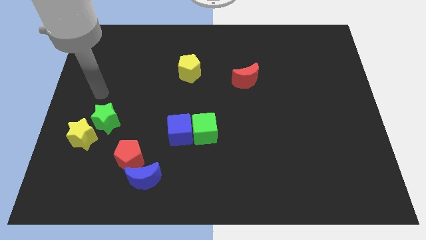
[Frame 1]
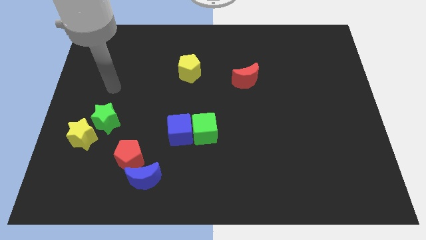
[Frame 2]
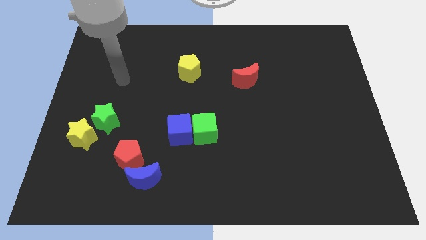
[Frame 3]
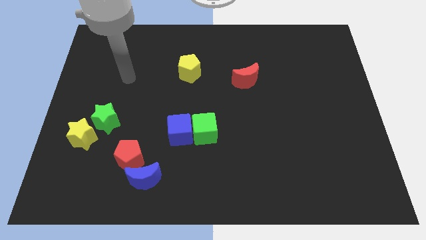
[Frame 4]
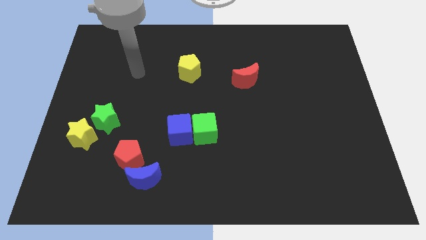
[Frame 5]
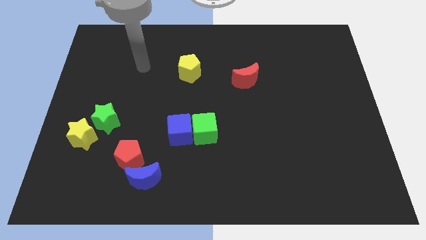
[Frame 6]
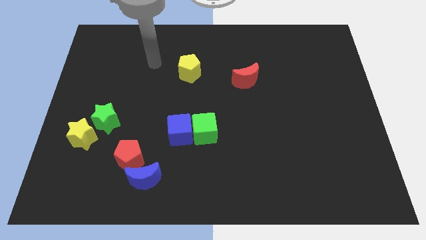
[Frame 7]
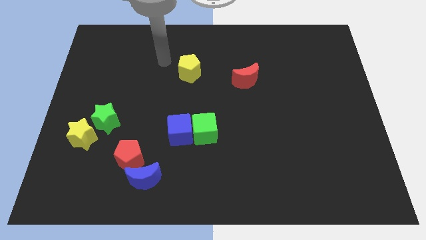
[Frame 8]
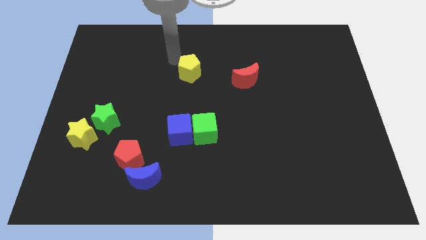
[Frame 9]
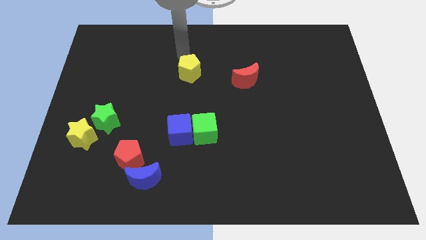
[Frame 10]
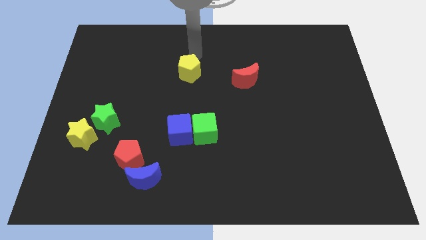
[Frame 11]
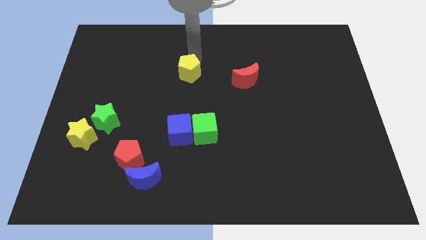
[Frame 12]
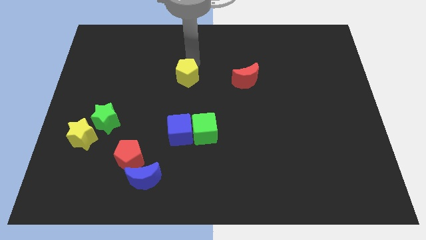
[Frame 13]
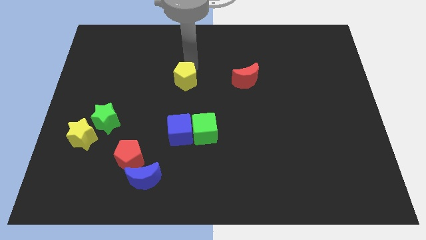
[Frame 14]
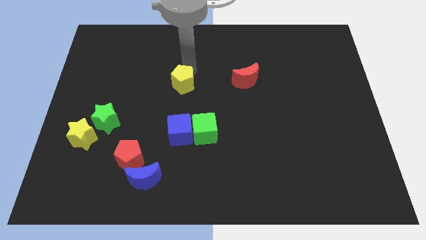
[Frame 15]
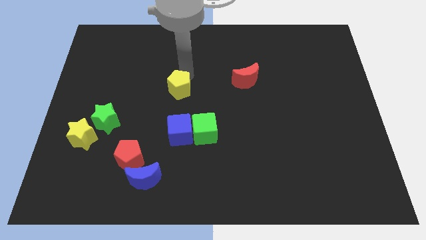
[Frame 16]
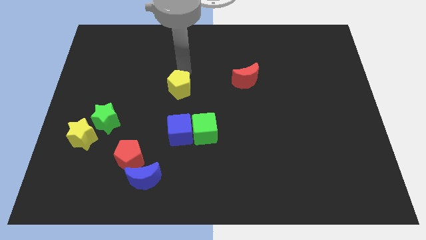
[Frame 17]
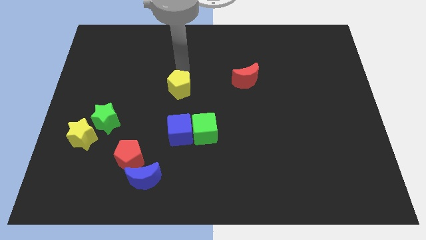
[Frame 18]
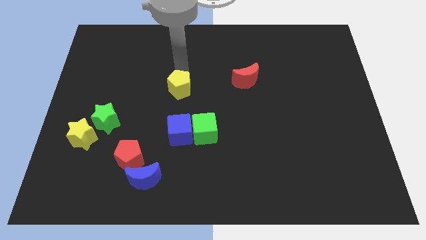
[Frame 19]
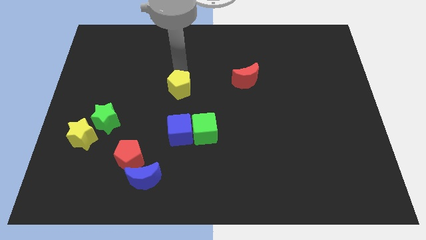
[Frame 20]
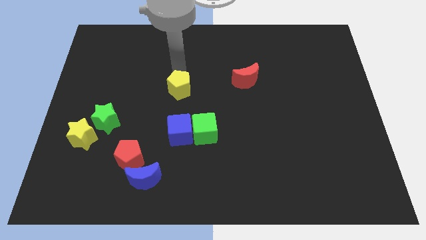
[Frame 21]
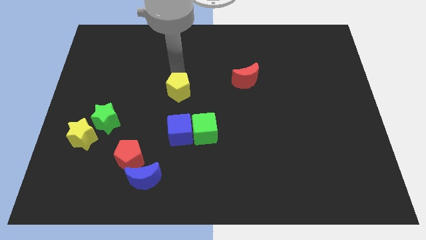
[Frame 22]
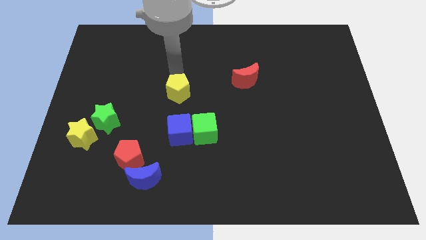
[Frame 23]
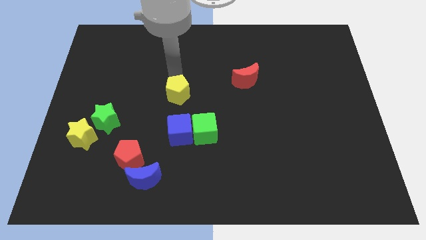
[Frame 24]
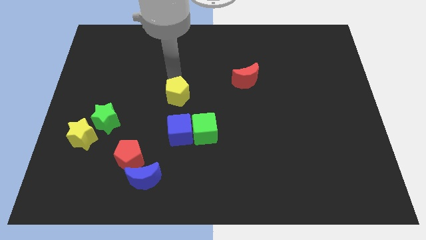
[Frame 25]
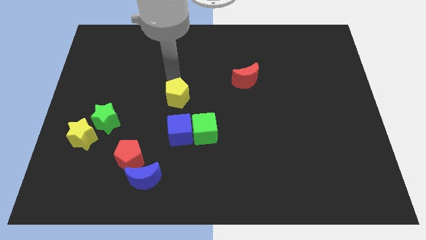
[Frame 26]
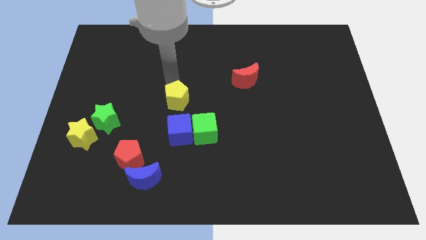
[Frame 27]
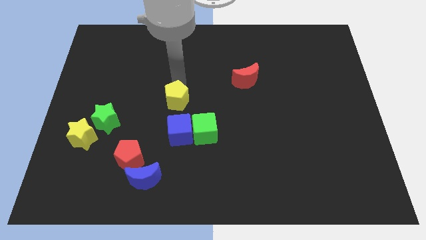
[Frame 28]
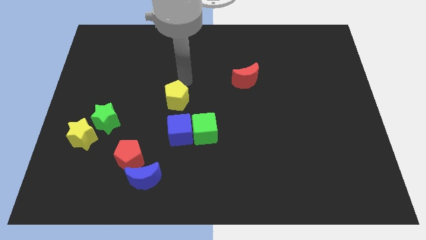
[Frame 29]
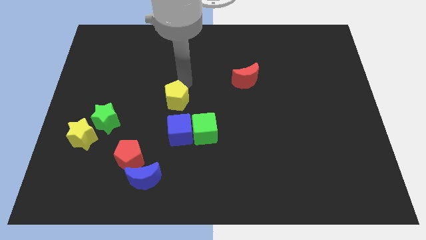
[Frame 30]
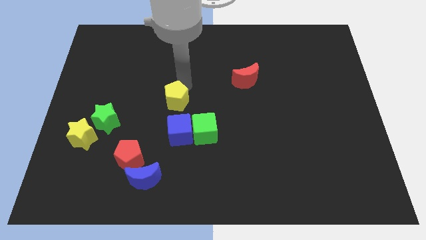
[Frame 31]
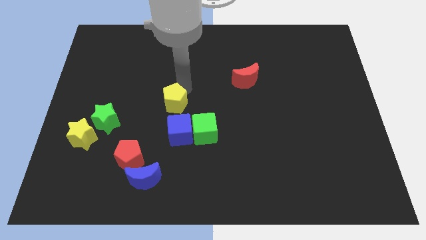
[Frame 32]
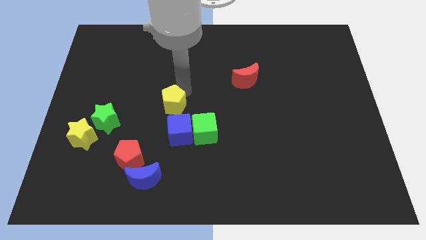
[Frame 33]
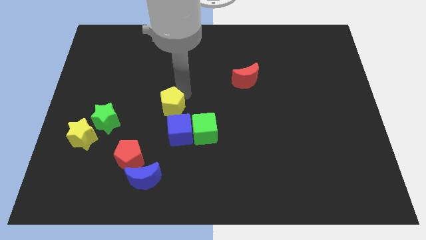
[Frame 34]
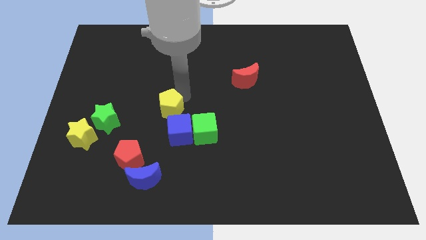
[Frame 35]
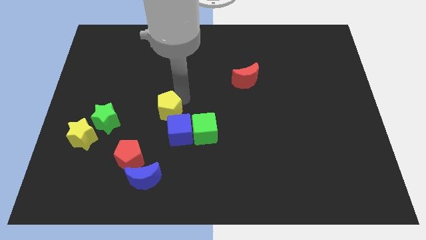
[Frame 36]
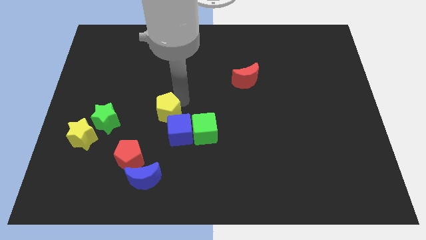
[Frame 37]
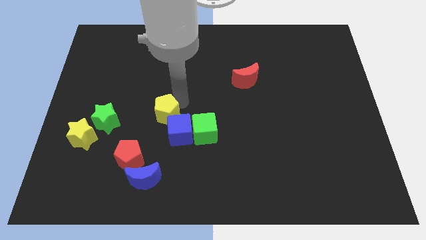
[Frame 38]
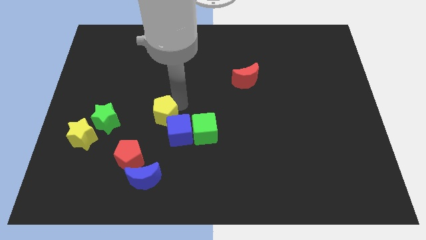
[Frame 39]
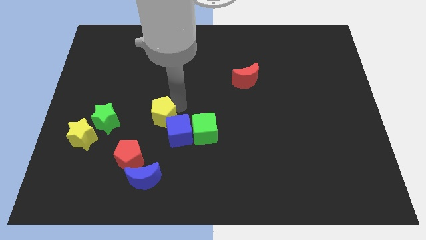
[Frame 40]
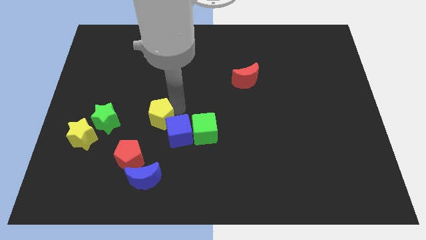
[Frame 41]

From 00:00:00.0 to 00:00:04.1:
push the yellow pentagon to the top side of the blue moon

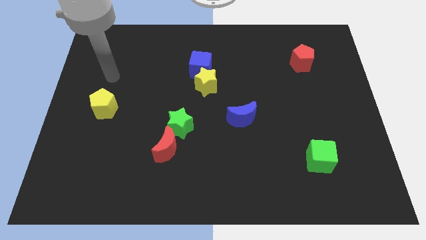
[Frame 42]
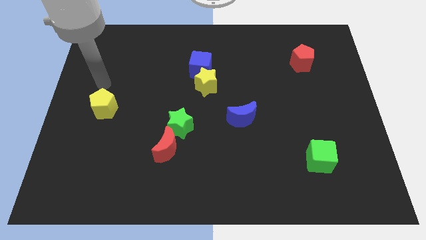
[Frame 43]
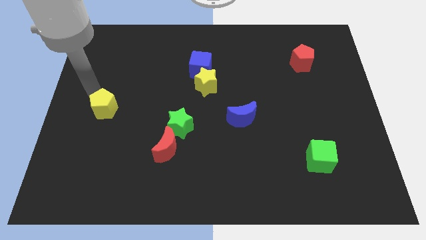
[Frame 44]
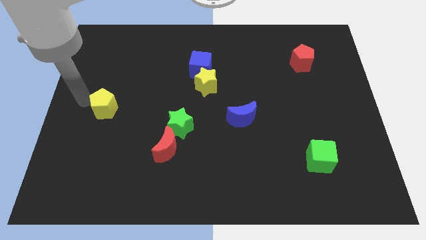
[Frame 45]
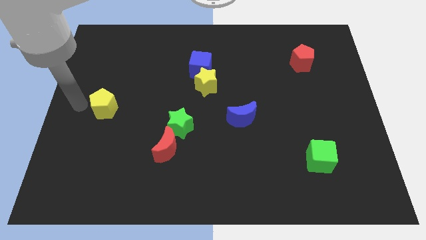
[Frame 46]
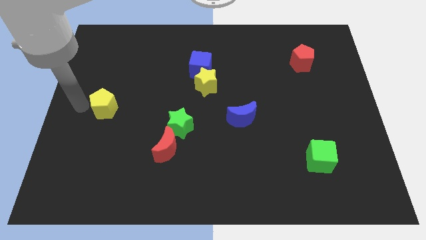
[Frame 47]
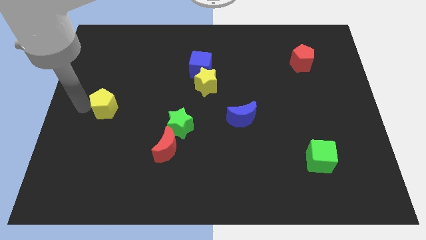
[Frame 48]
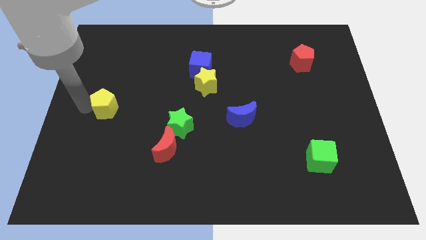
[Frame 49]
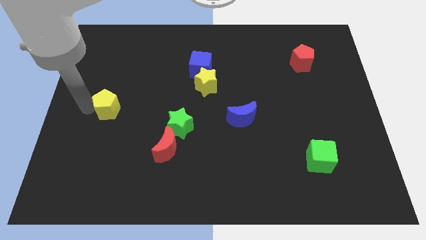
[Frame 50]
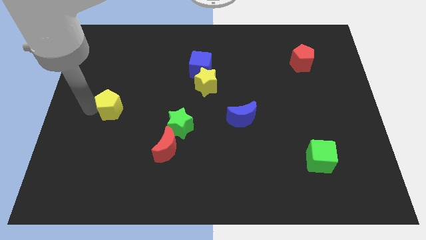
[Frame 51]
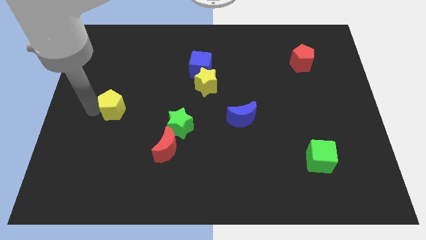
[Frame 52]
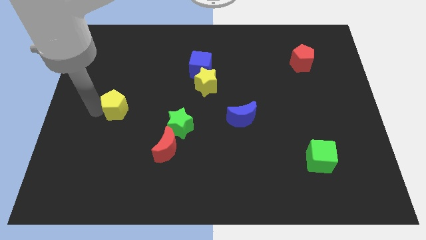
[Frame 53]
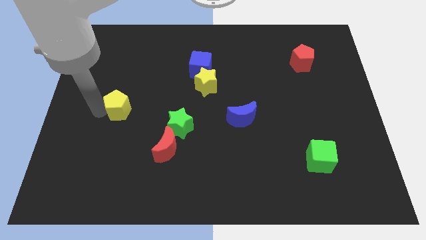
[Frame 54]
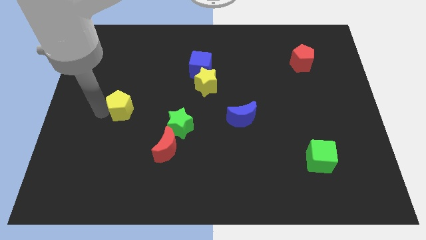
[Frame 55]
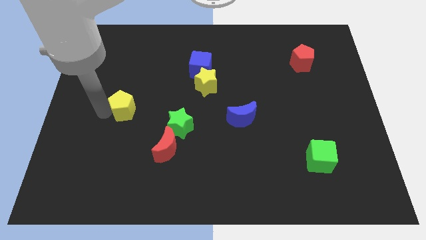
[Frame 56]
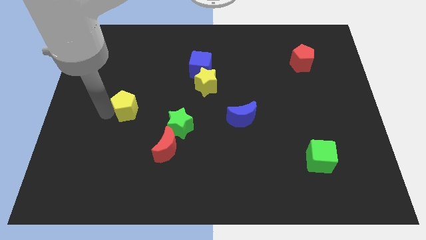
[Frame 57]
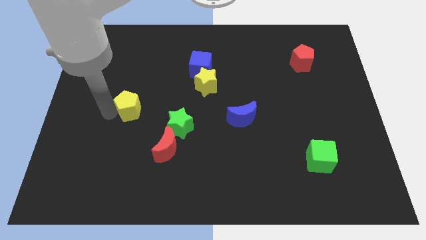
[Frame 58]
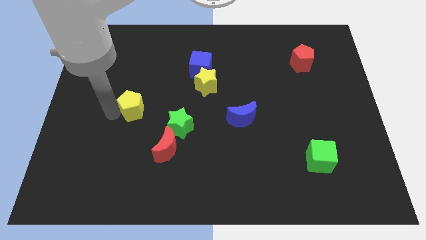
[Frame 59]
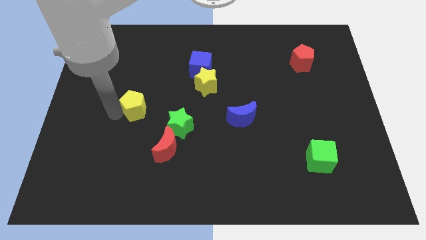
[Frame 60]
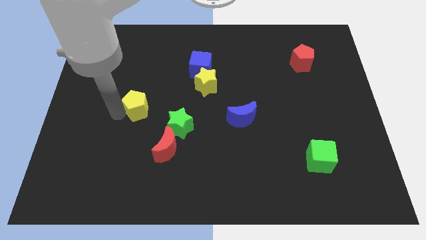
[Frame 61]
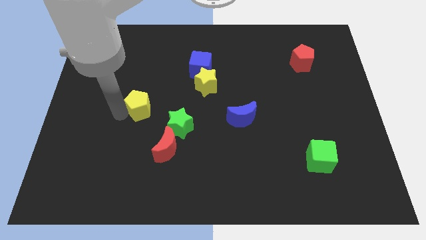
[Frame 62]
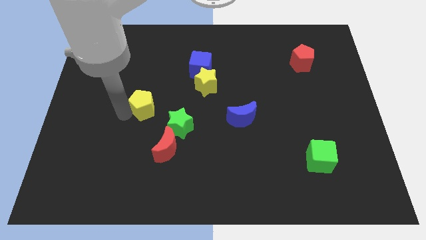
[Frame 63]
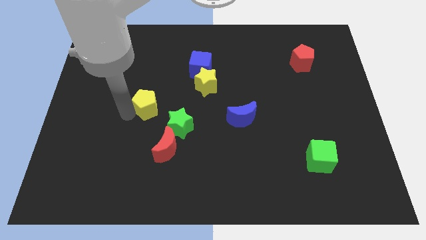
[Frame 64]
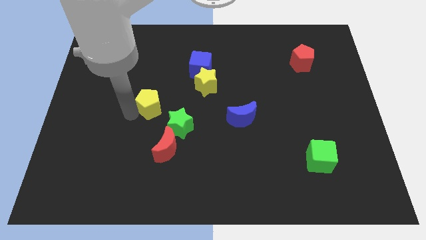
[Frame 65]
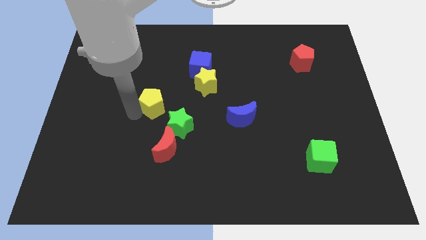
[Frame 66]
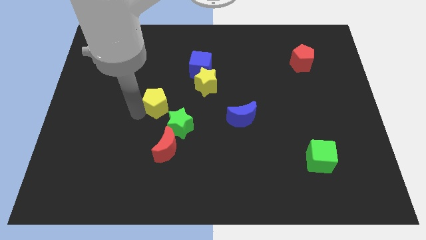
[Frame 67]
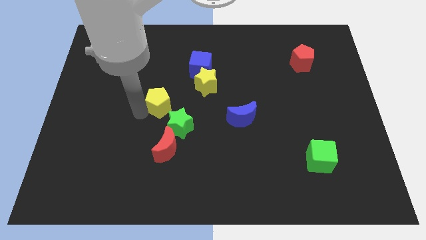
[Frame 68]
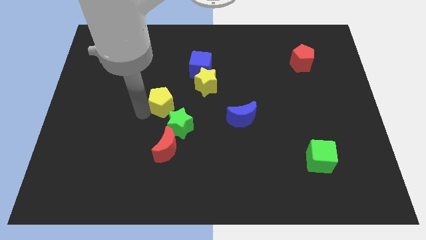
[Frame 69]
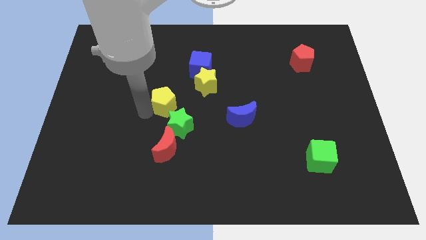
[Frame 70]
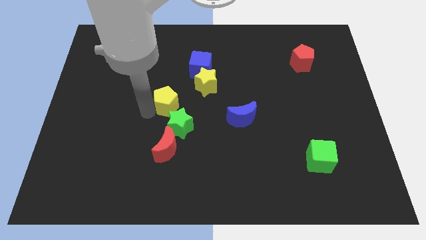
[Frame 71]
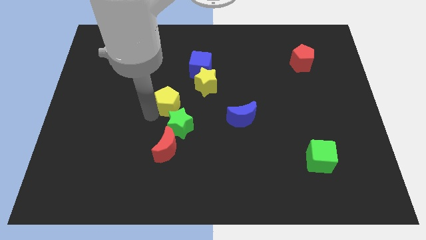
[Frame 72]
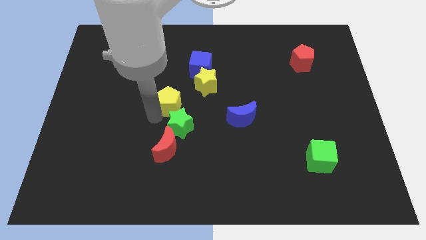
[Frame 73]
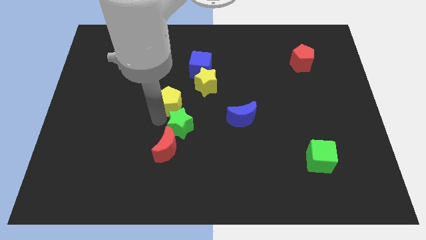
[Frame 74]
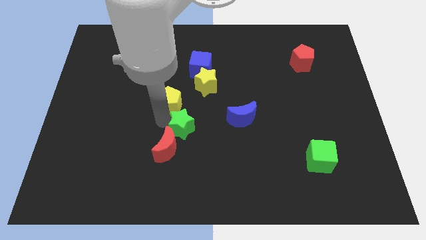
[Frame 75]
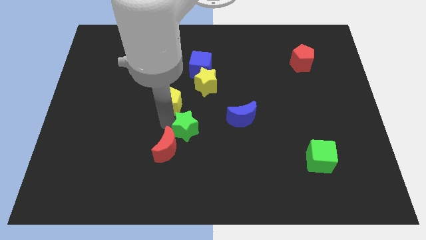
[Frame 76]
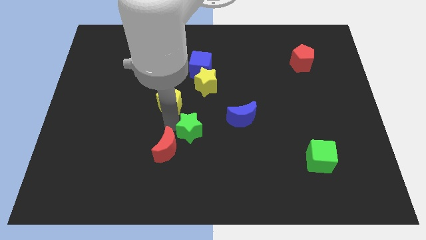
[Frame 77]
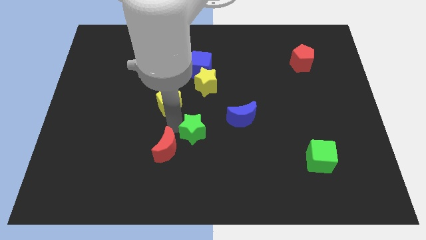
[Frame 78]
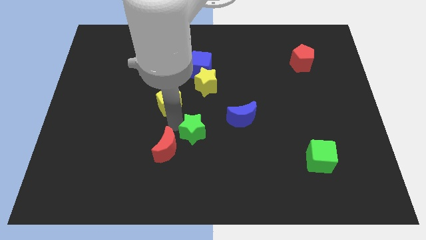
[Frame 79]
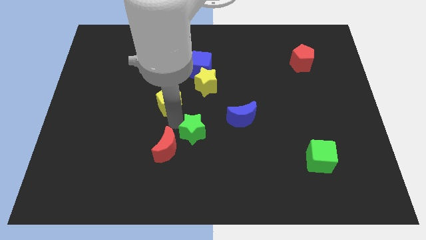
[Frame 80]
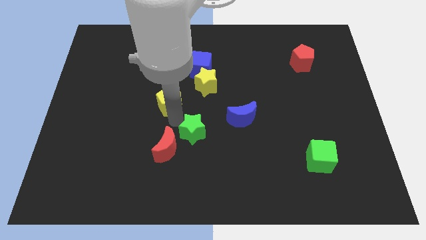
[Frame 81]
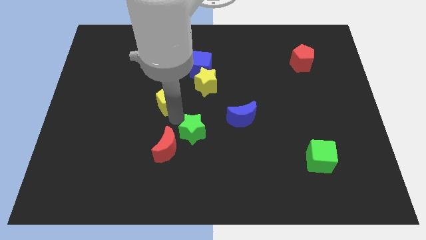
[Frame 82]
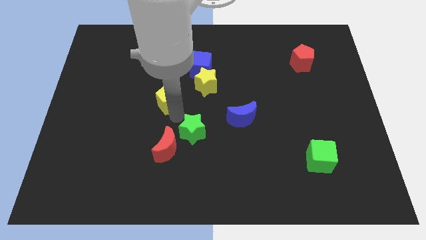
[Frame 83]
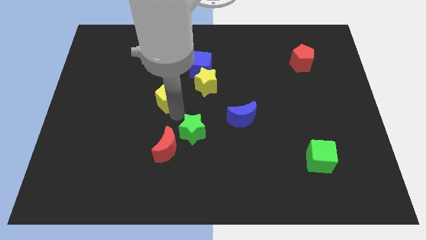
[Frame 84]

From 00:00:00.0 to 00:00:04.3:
slide the yellow pentagon diagonally down and to the left of the blue cube

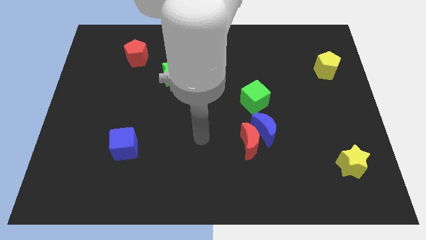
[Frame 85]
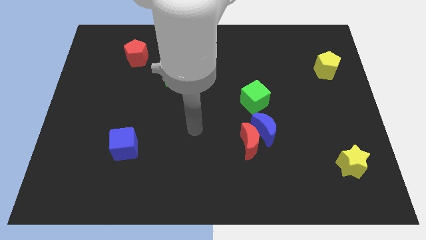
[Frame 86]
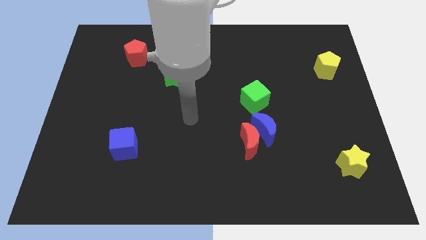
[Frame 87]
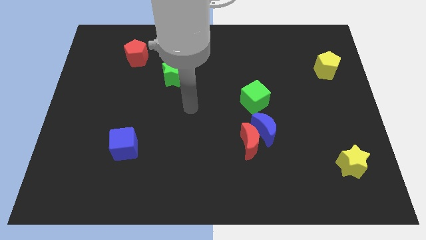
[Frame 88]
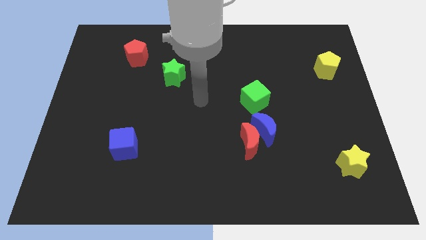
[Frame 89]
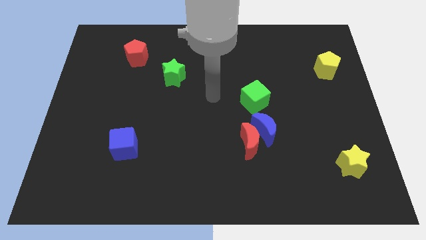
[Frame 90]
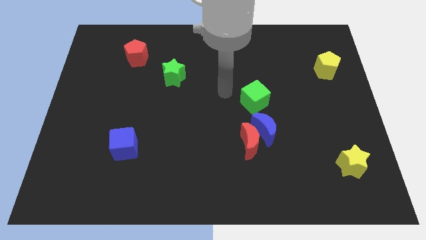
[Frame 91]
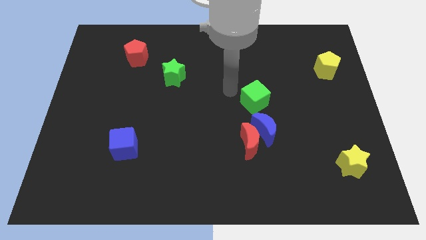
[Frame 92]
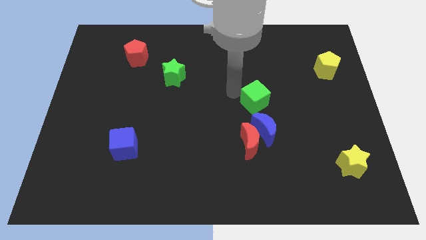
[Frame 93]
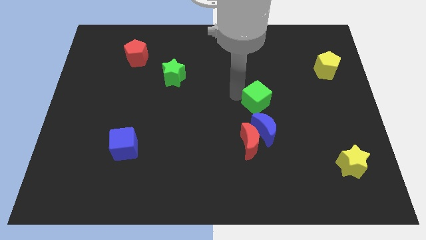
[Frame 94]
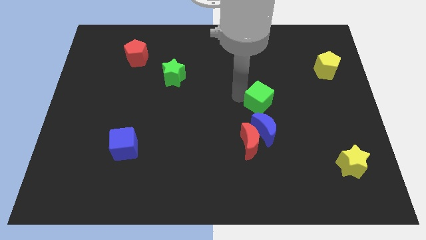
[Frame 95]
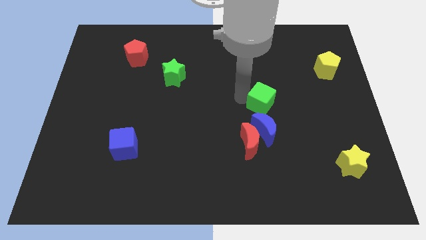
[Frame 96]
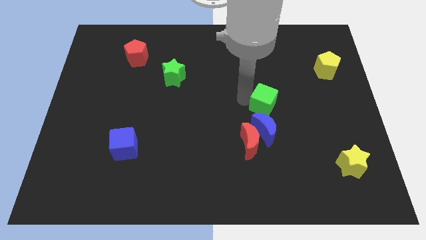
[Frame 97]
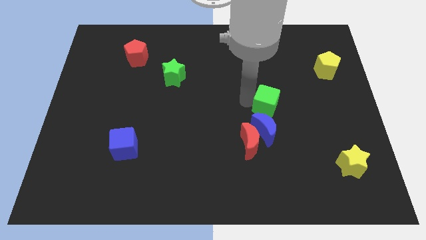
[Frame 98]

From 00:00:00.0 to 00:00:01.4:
put the green cube to the top right side of the blue moon
